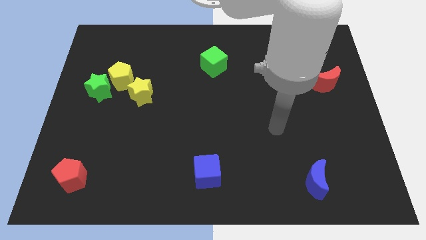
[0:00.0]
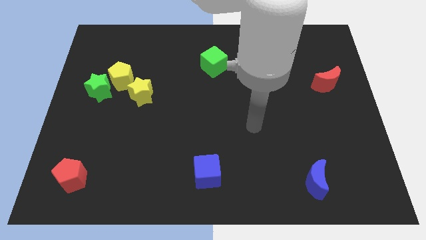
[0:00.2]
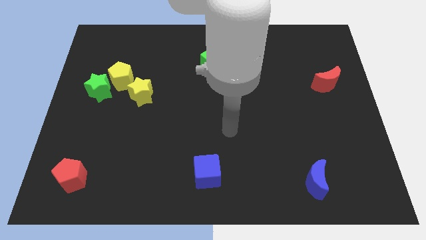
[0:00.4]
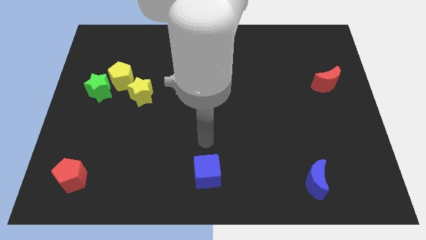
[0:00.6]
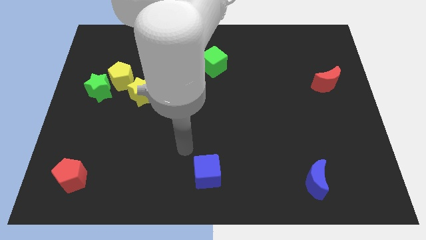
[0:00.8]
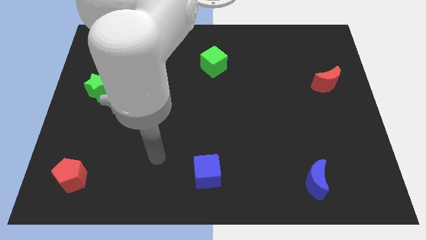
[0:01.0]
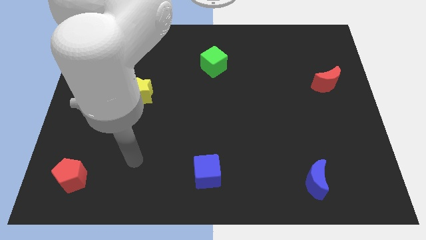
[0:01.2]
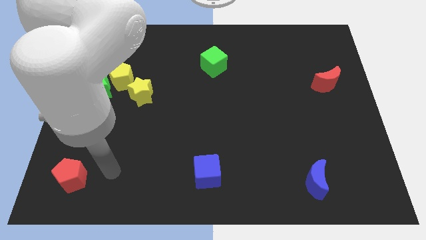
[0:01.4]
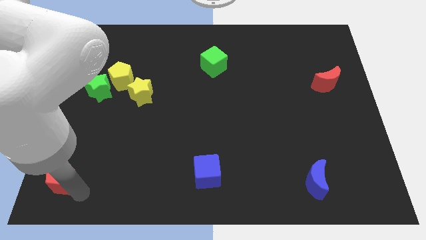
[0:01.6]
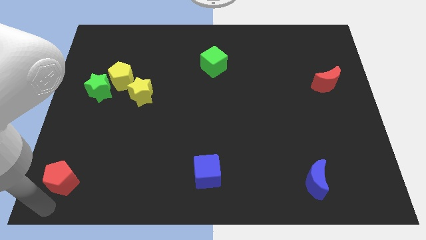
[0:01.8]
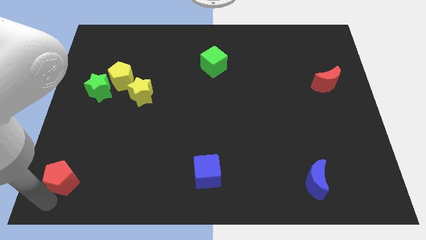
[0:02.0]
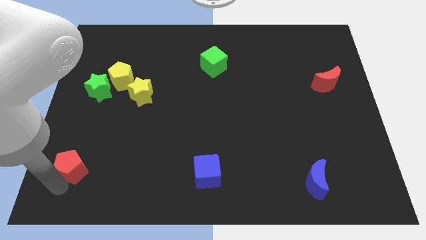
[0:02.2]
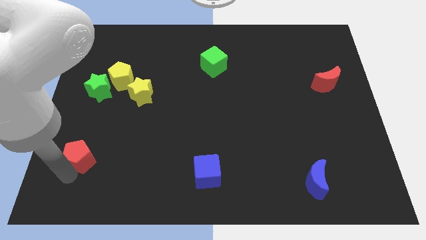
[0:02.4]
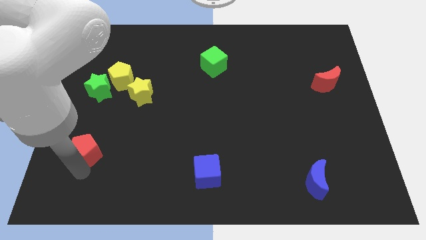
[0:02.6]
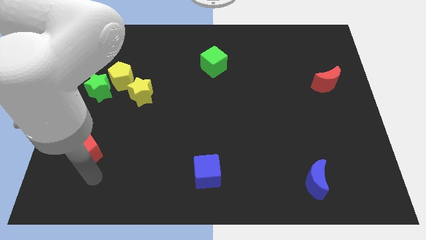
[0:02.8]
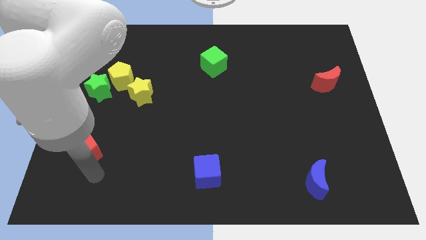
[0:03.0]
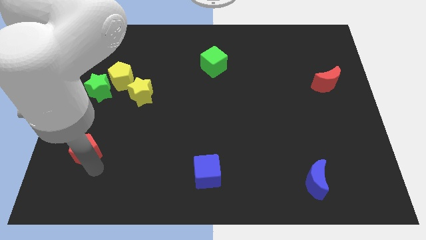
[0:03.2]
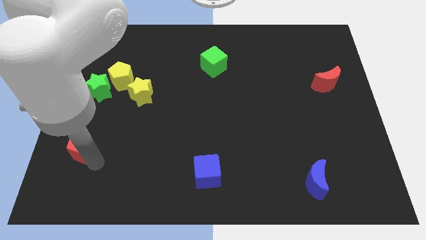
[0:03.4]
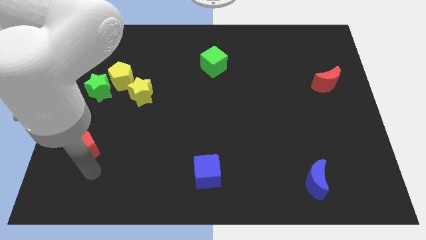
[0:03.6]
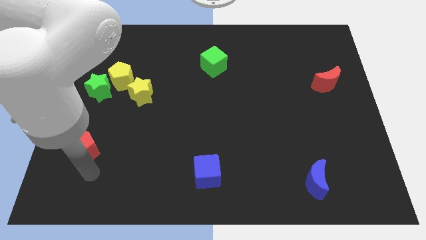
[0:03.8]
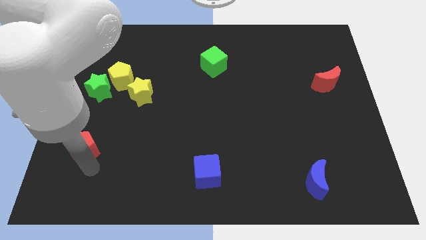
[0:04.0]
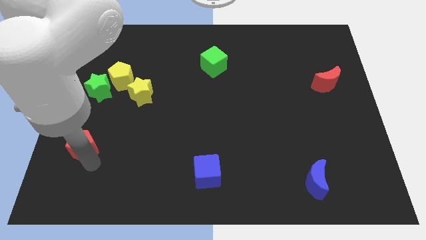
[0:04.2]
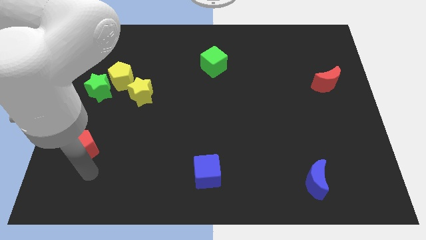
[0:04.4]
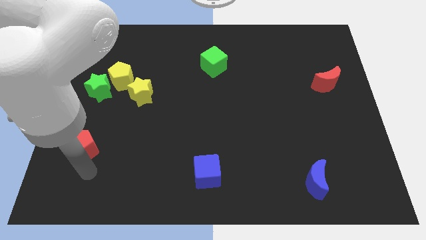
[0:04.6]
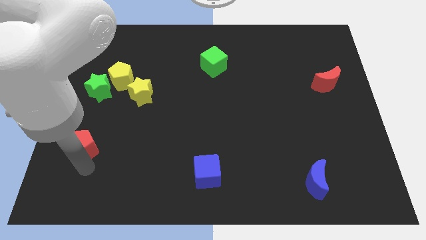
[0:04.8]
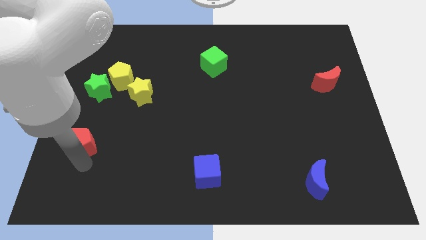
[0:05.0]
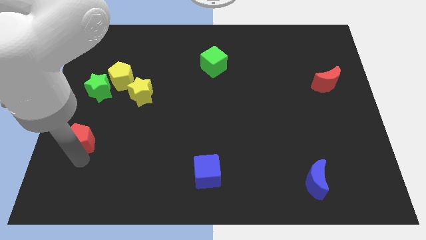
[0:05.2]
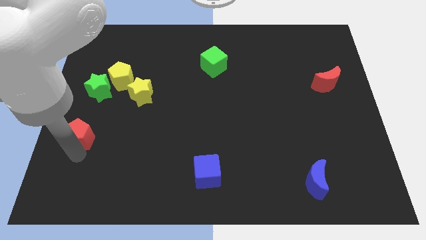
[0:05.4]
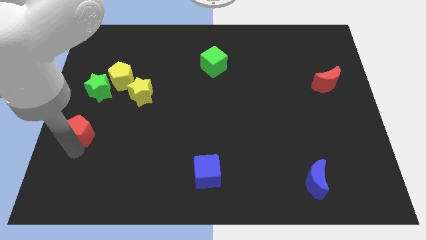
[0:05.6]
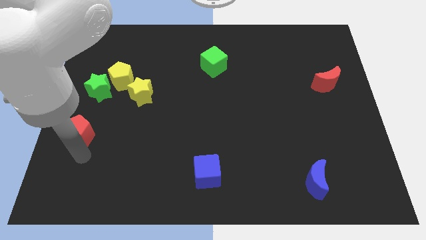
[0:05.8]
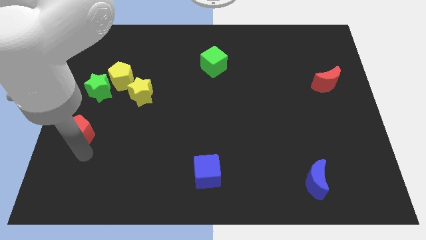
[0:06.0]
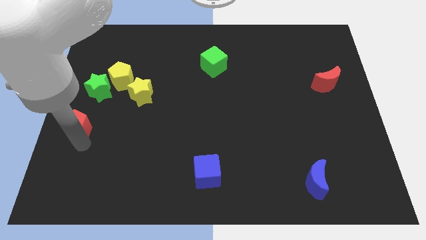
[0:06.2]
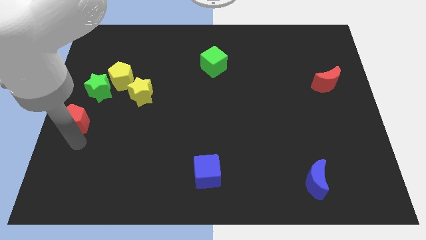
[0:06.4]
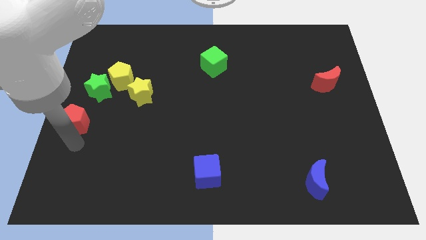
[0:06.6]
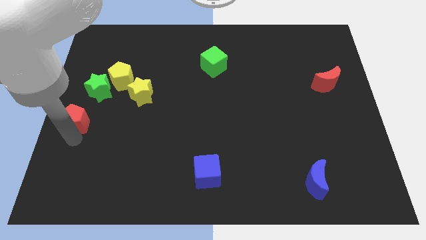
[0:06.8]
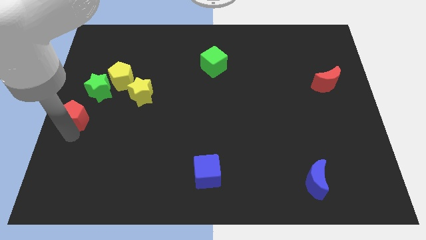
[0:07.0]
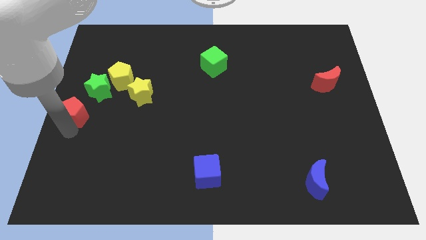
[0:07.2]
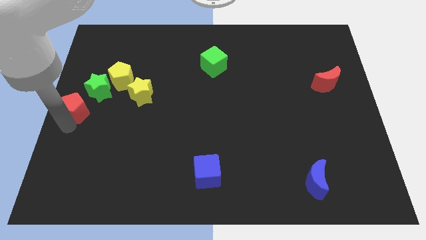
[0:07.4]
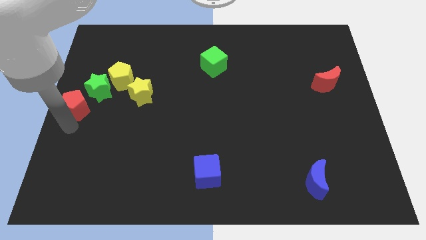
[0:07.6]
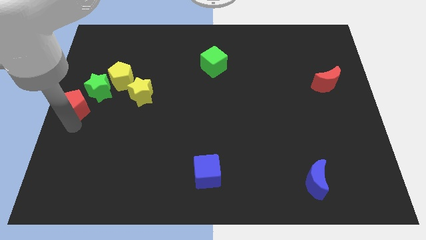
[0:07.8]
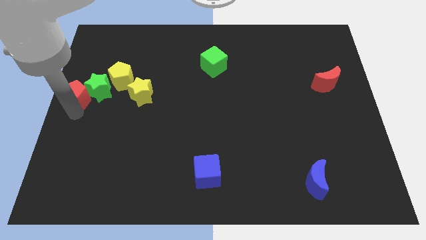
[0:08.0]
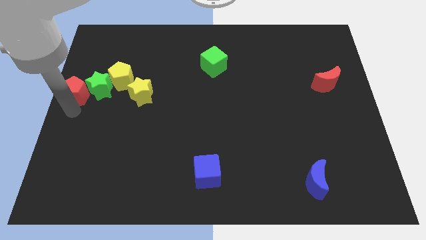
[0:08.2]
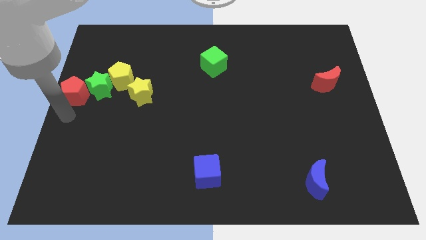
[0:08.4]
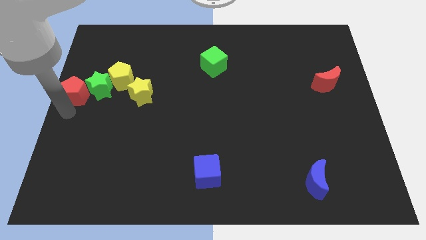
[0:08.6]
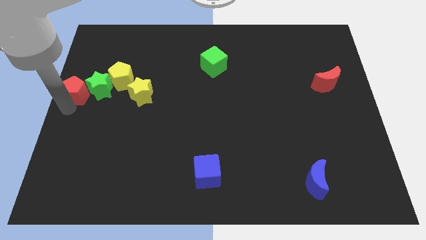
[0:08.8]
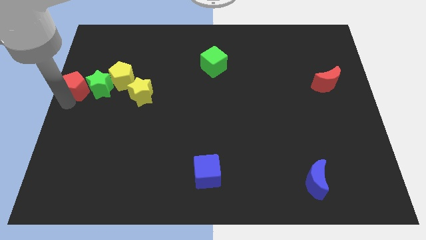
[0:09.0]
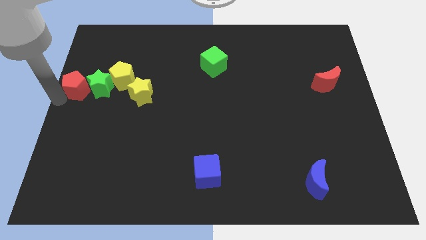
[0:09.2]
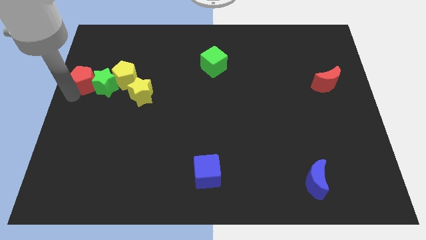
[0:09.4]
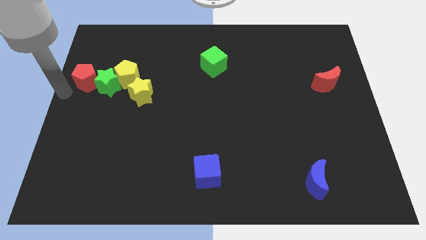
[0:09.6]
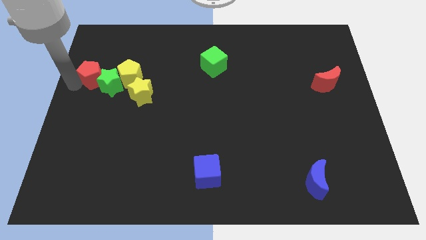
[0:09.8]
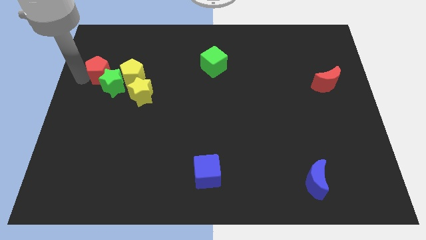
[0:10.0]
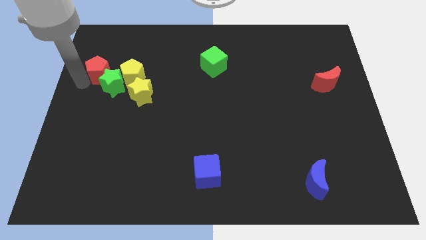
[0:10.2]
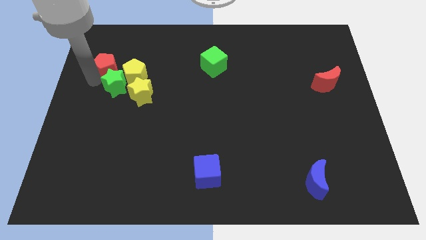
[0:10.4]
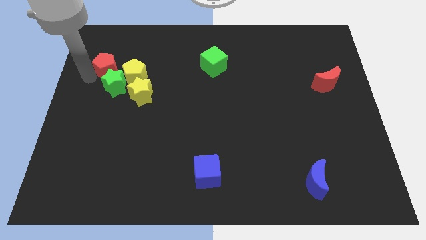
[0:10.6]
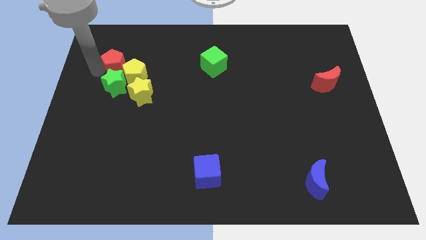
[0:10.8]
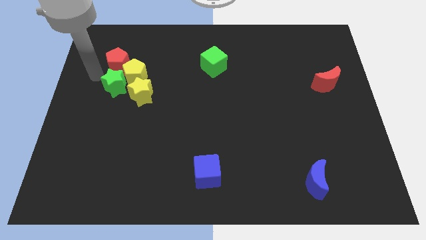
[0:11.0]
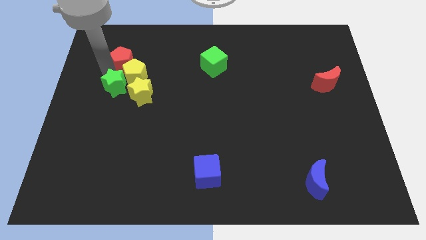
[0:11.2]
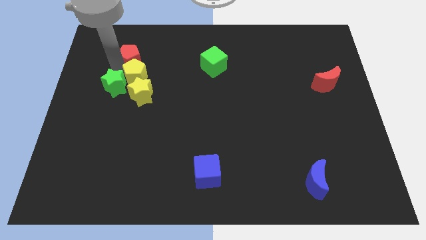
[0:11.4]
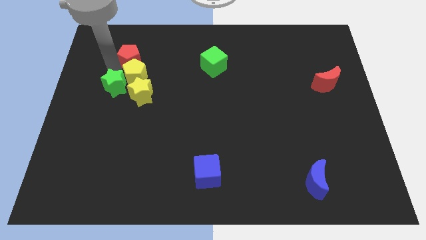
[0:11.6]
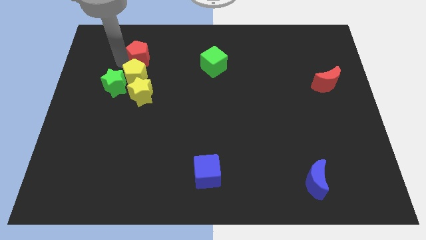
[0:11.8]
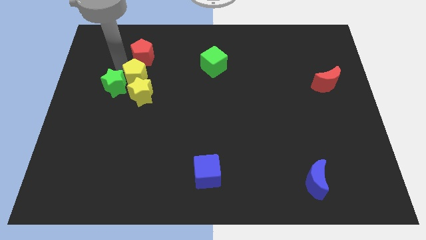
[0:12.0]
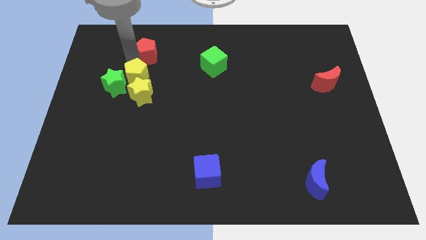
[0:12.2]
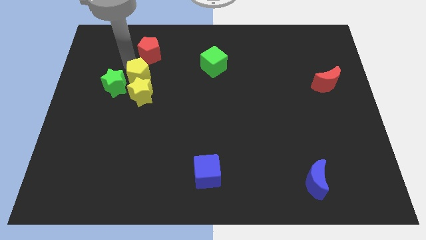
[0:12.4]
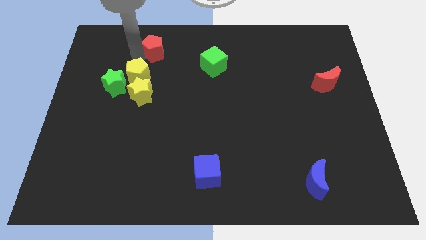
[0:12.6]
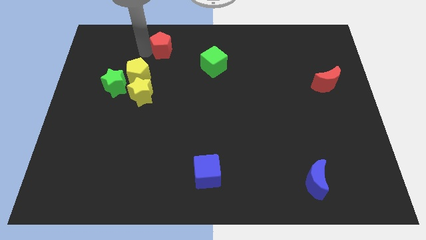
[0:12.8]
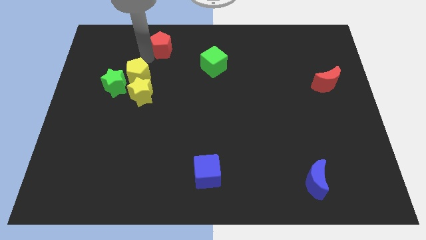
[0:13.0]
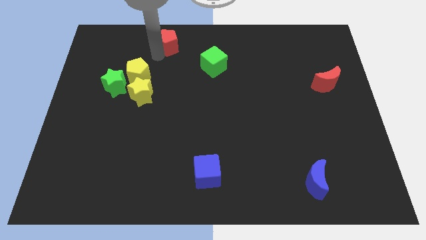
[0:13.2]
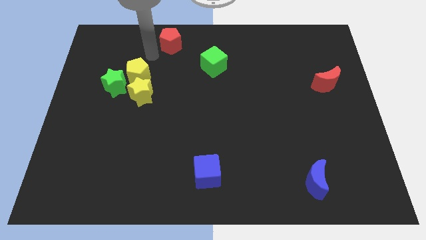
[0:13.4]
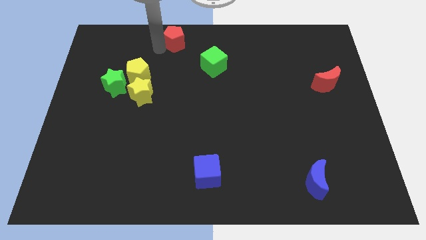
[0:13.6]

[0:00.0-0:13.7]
move the red pentagon to the towards your base
